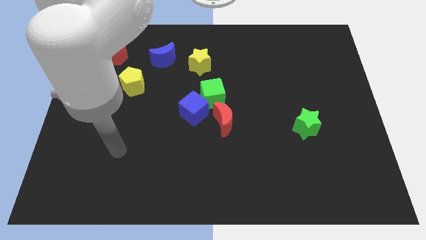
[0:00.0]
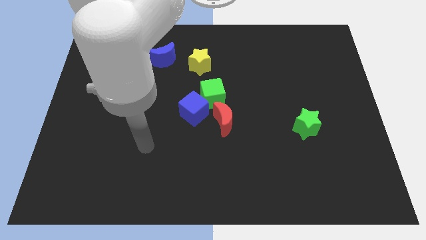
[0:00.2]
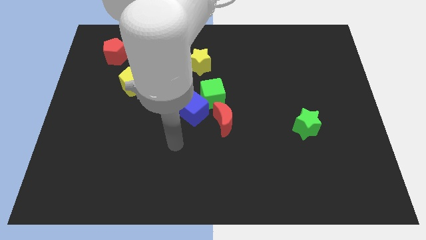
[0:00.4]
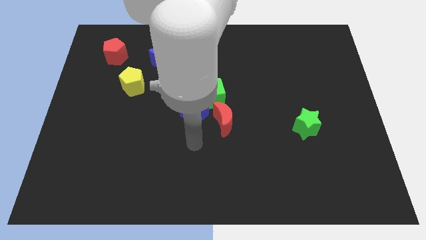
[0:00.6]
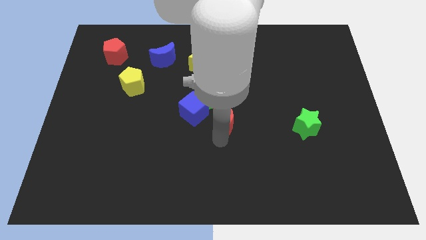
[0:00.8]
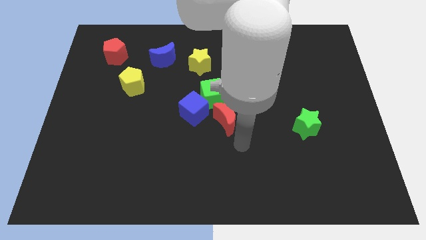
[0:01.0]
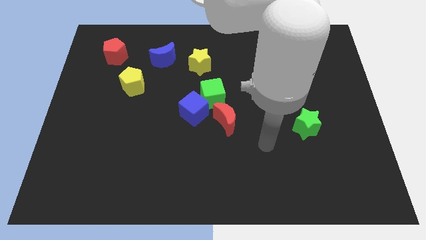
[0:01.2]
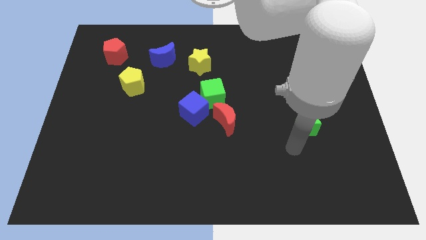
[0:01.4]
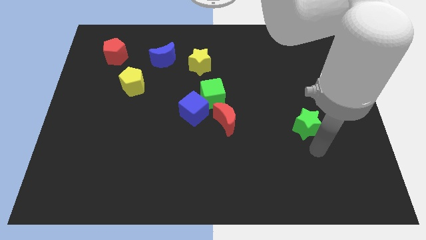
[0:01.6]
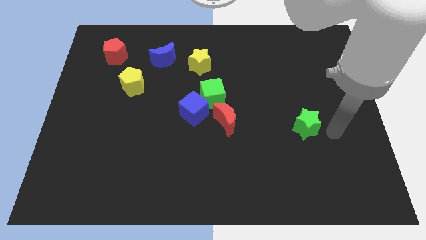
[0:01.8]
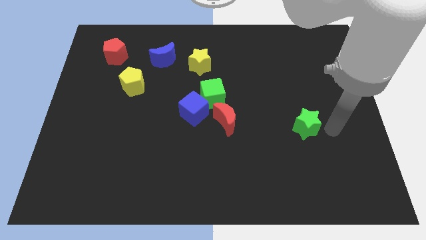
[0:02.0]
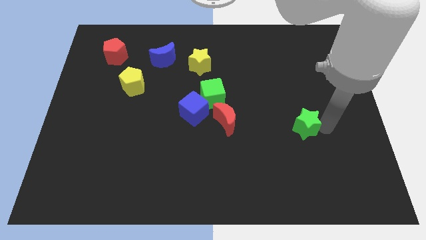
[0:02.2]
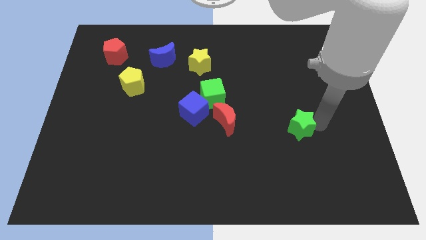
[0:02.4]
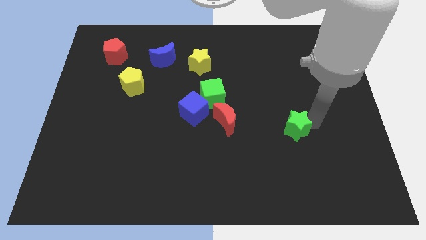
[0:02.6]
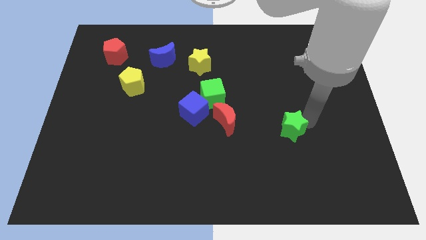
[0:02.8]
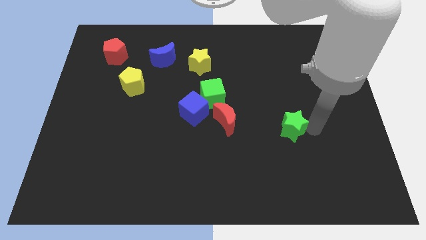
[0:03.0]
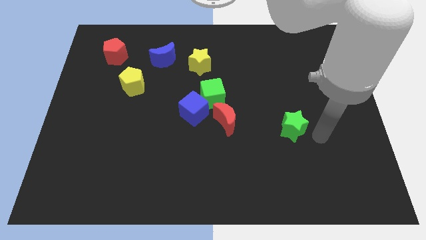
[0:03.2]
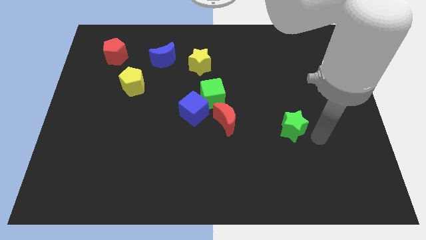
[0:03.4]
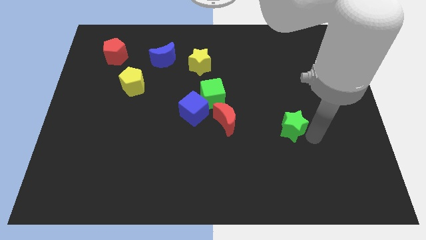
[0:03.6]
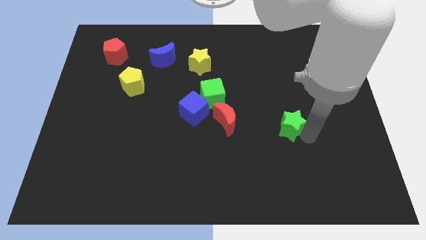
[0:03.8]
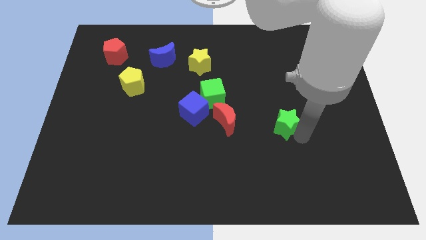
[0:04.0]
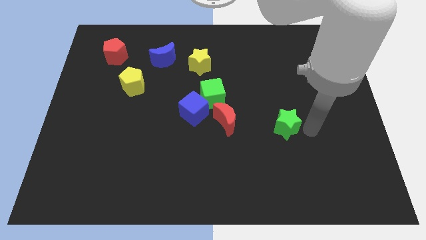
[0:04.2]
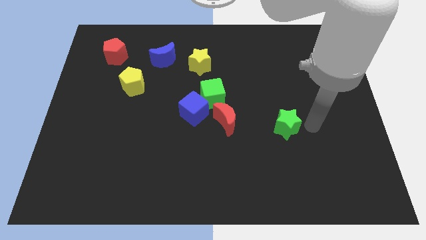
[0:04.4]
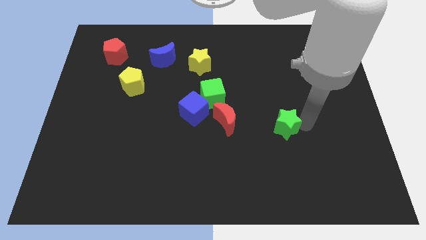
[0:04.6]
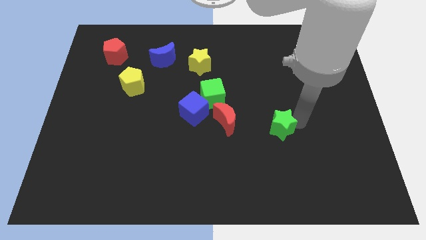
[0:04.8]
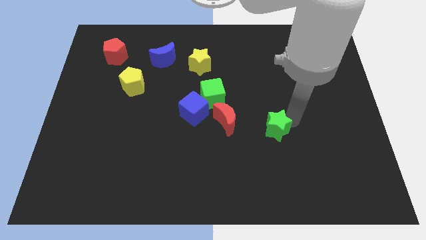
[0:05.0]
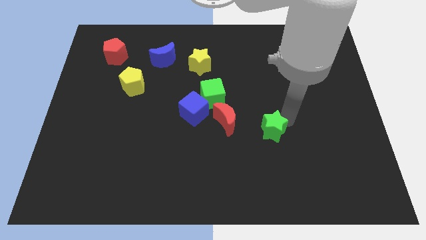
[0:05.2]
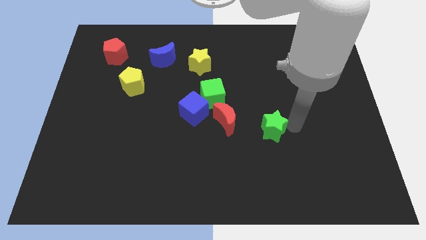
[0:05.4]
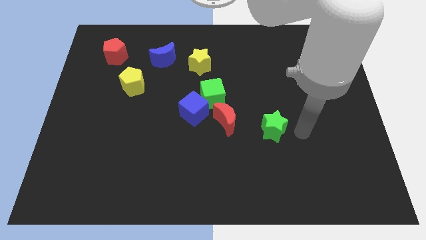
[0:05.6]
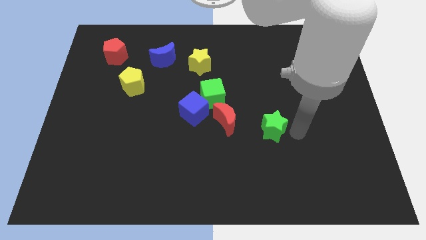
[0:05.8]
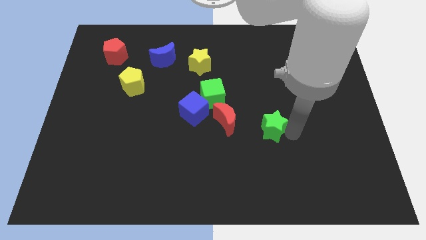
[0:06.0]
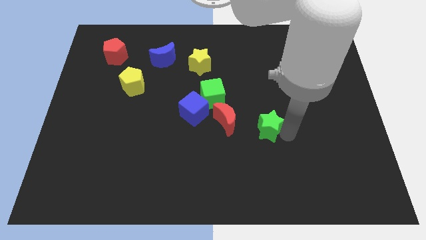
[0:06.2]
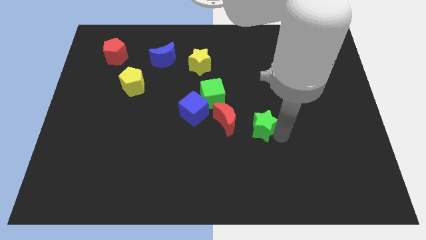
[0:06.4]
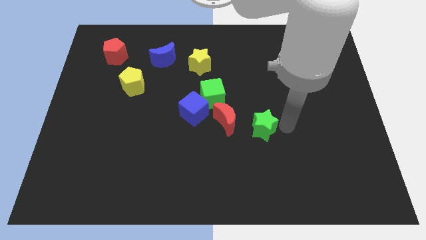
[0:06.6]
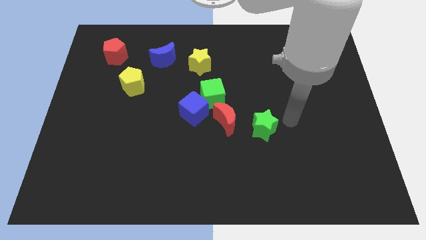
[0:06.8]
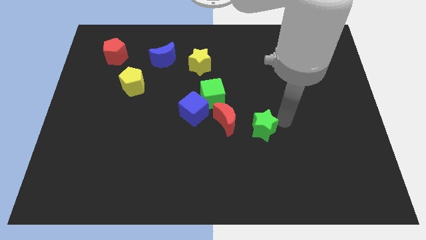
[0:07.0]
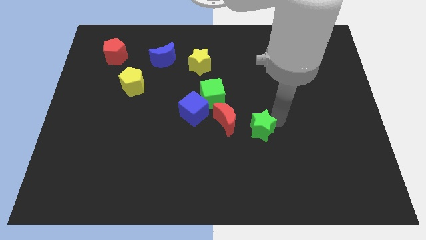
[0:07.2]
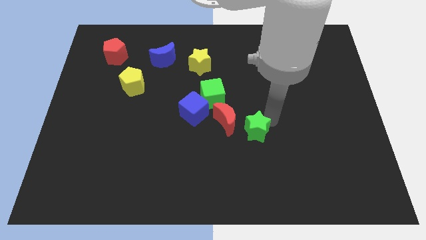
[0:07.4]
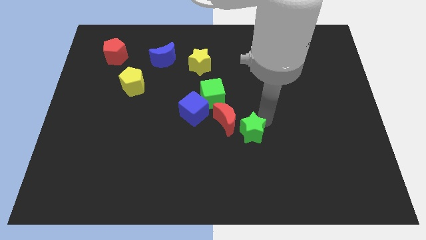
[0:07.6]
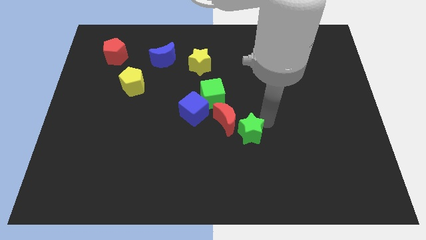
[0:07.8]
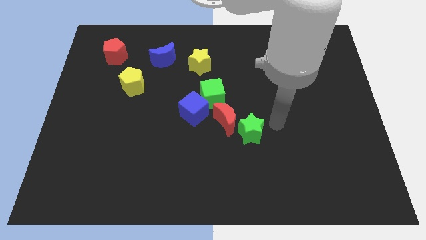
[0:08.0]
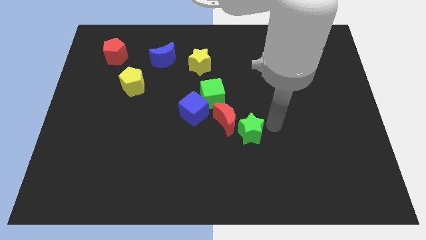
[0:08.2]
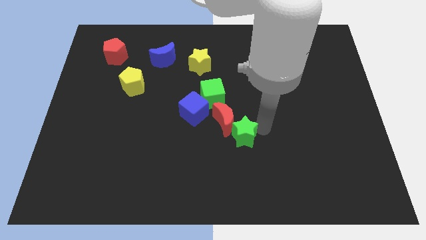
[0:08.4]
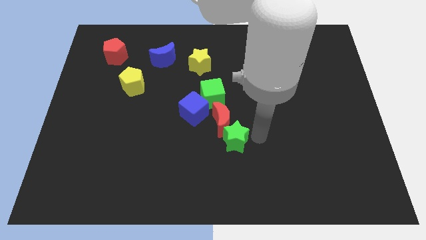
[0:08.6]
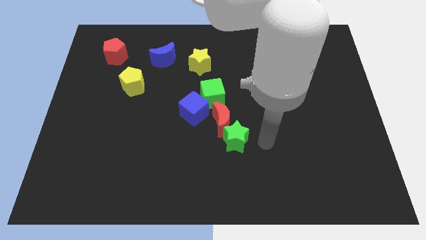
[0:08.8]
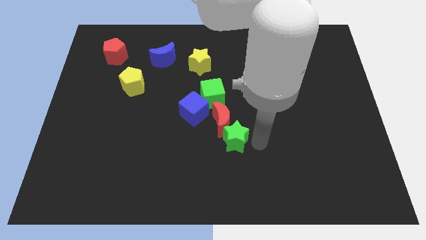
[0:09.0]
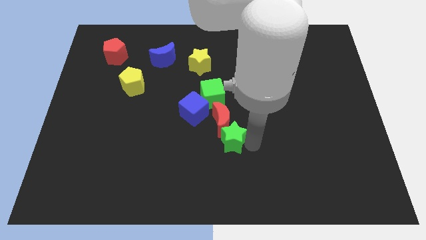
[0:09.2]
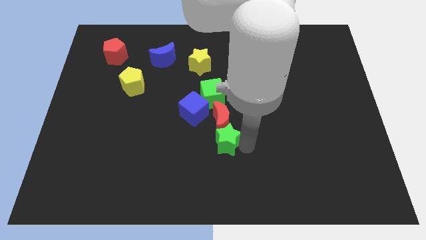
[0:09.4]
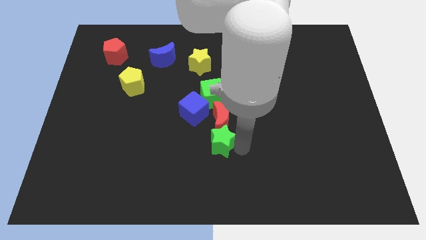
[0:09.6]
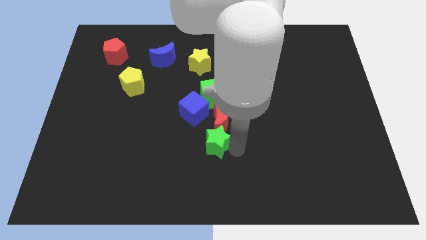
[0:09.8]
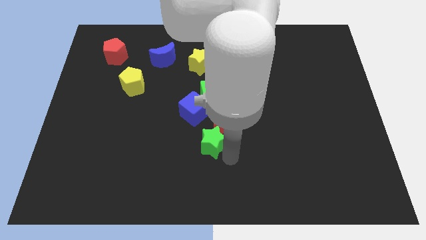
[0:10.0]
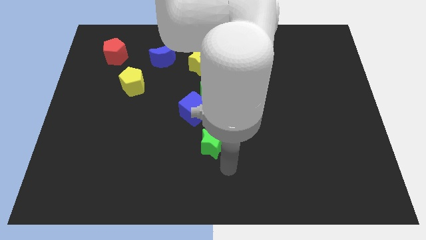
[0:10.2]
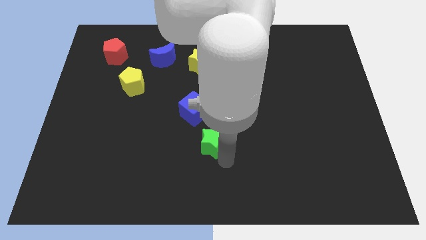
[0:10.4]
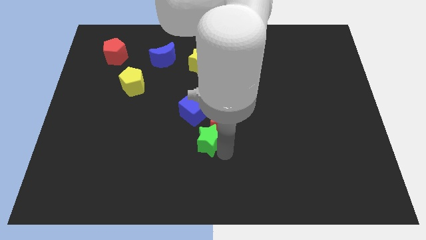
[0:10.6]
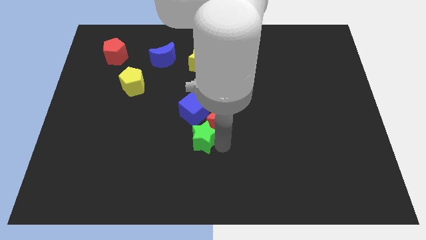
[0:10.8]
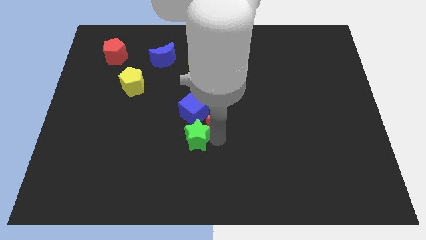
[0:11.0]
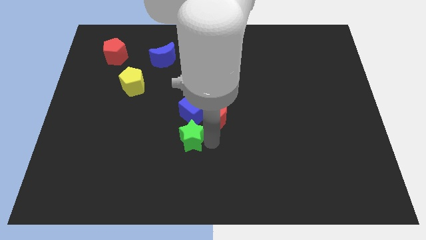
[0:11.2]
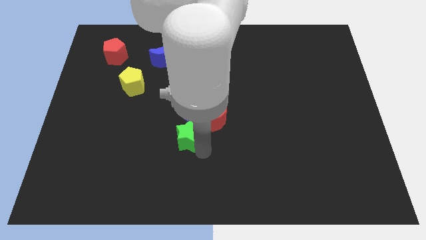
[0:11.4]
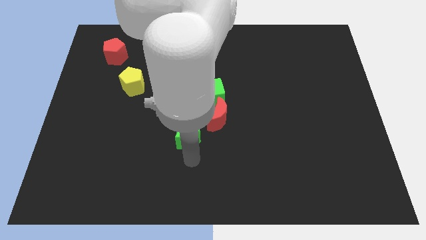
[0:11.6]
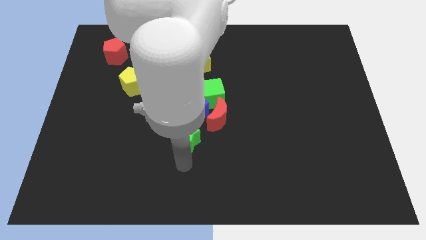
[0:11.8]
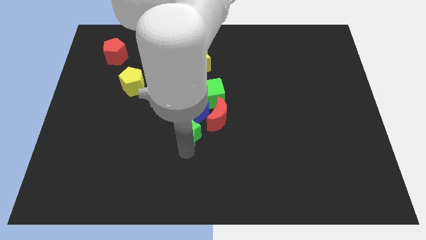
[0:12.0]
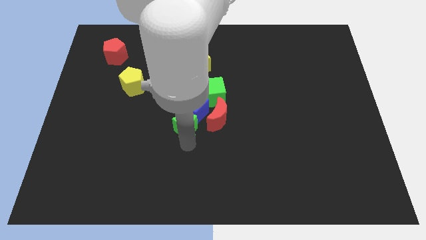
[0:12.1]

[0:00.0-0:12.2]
push the green star close to the blue cube

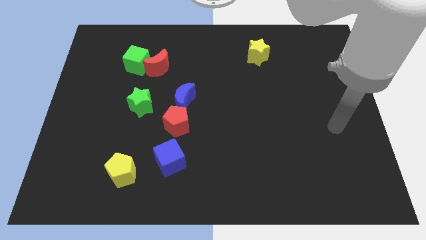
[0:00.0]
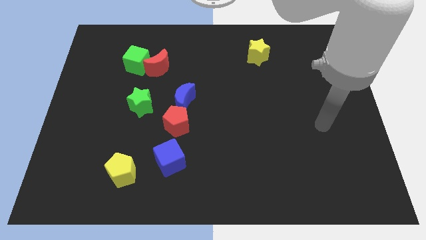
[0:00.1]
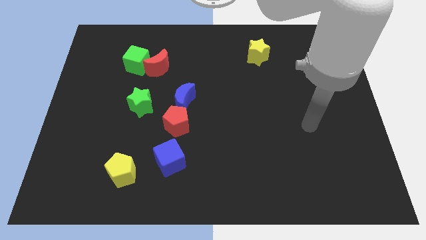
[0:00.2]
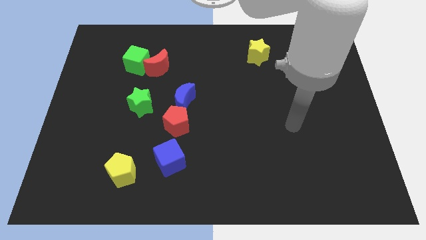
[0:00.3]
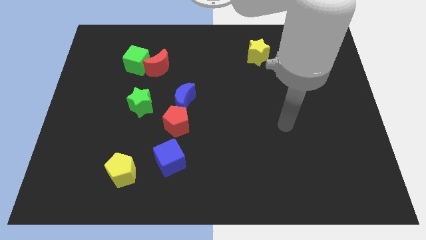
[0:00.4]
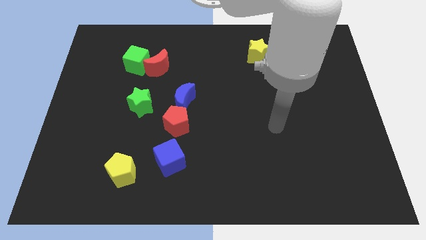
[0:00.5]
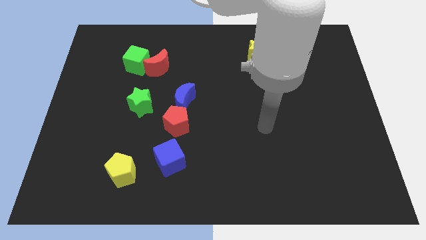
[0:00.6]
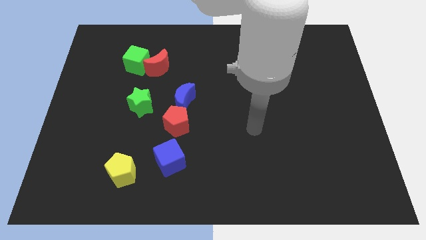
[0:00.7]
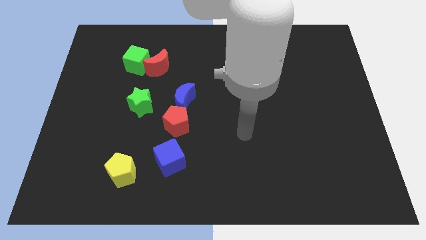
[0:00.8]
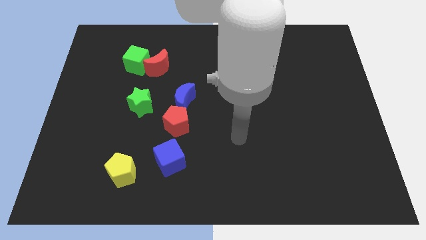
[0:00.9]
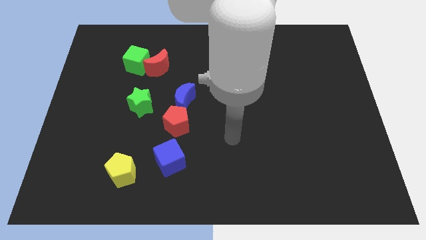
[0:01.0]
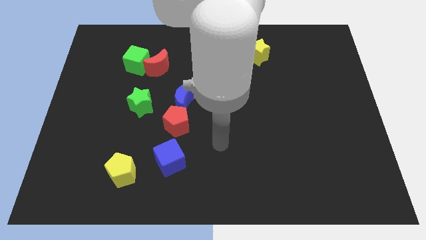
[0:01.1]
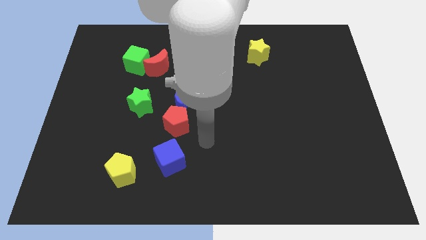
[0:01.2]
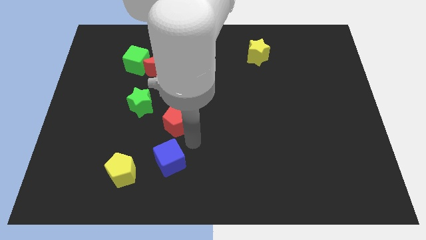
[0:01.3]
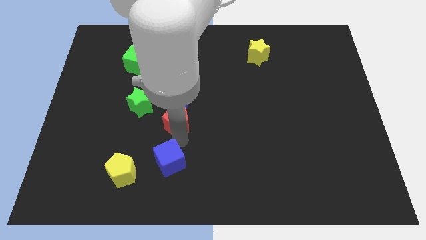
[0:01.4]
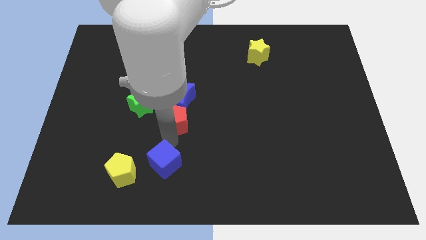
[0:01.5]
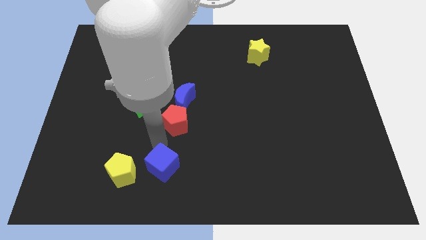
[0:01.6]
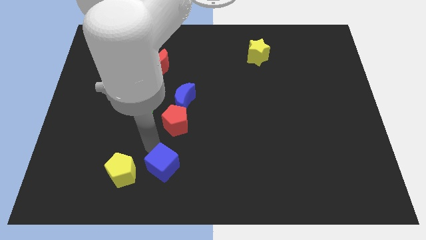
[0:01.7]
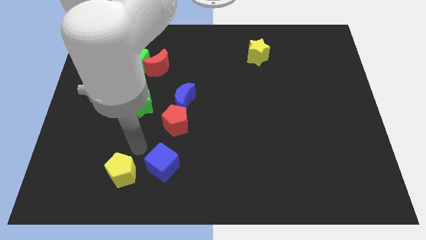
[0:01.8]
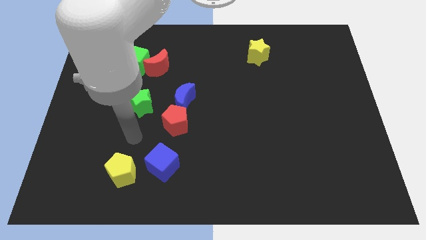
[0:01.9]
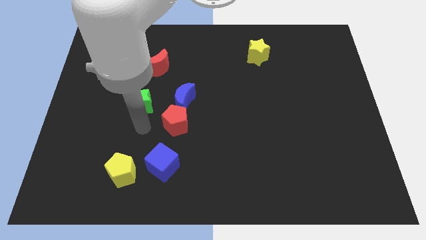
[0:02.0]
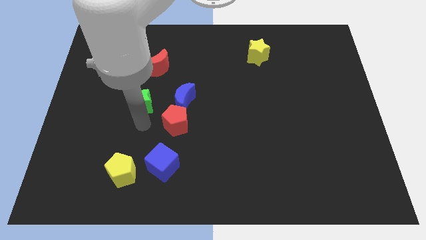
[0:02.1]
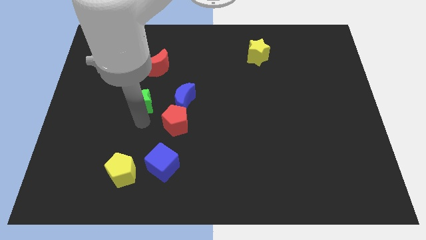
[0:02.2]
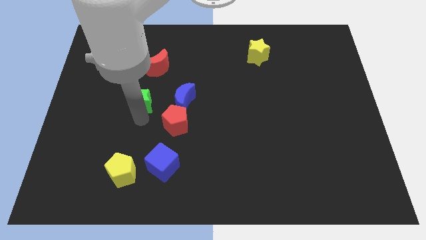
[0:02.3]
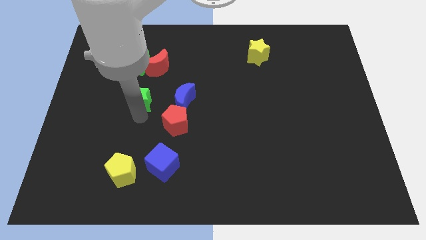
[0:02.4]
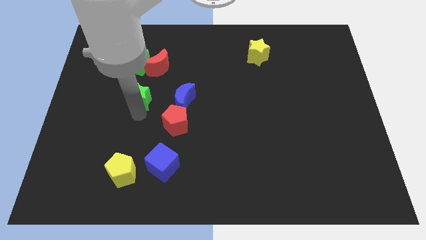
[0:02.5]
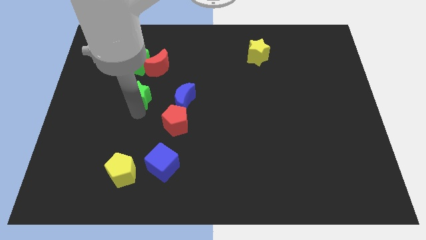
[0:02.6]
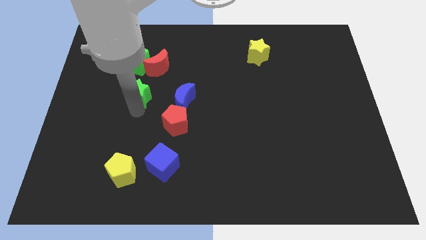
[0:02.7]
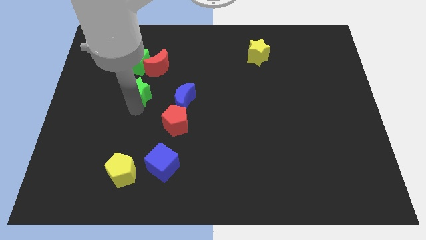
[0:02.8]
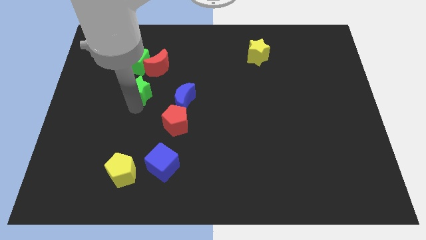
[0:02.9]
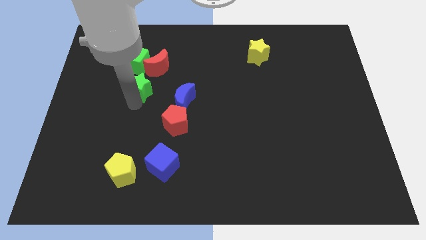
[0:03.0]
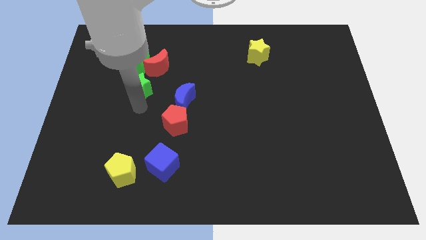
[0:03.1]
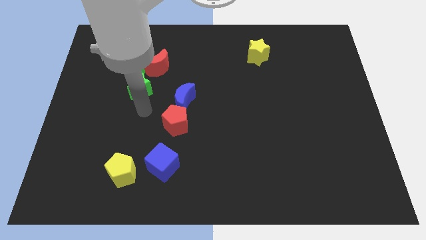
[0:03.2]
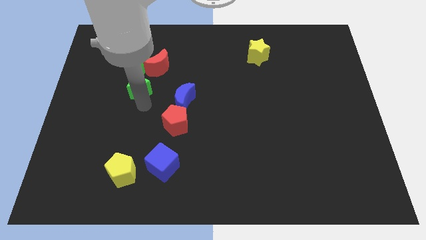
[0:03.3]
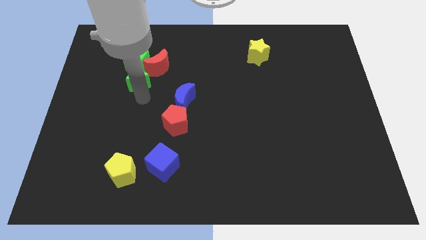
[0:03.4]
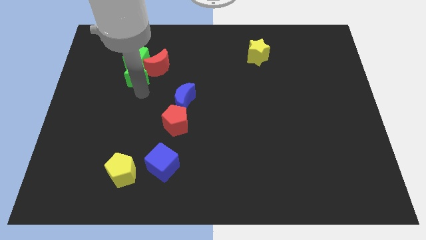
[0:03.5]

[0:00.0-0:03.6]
put the green star close to the green cube
